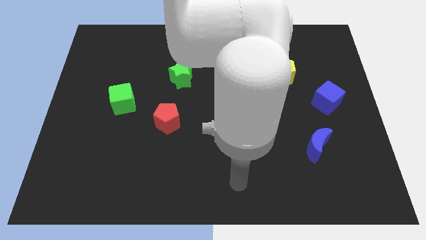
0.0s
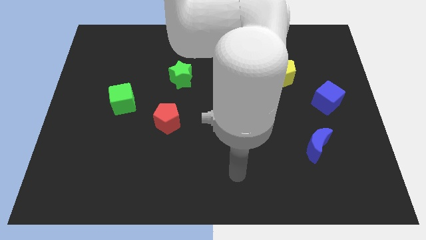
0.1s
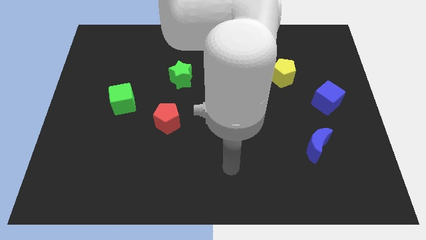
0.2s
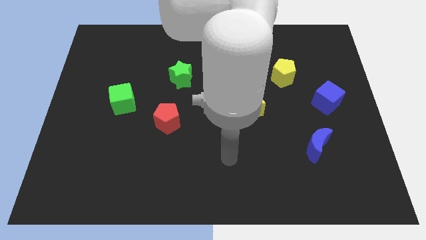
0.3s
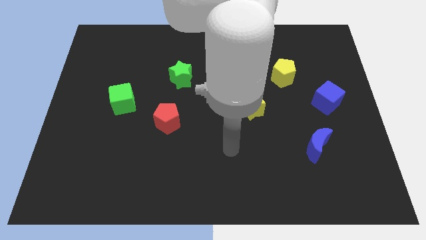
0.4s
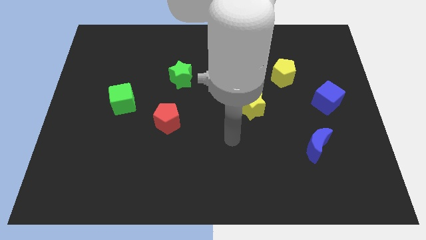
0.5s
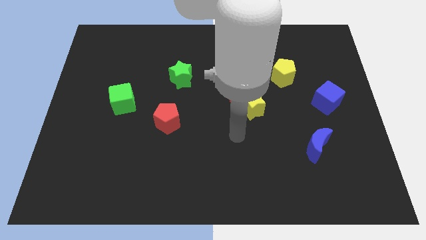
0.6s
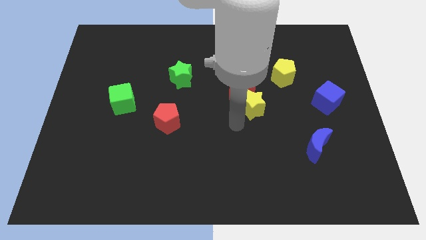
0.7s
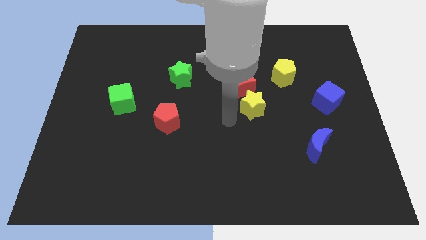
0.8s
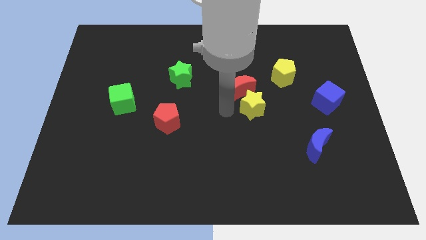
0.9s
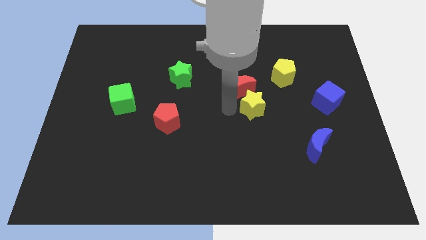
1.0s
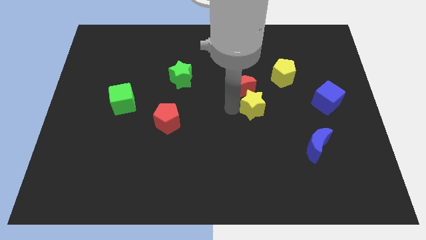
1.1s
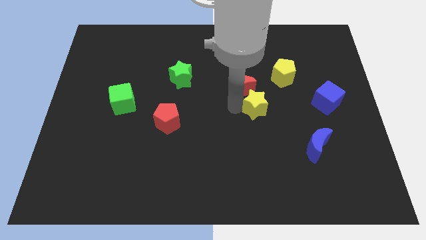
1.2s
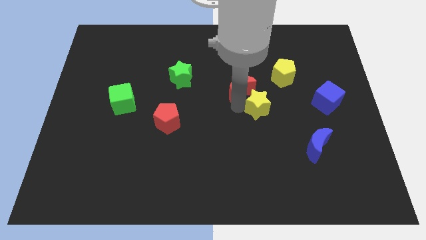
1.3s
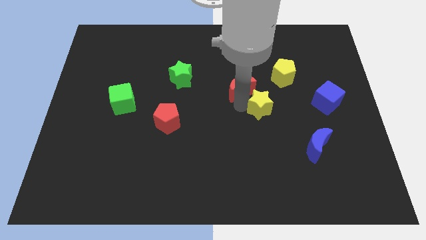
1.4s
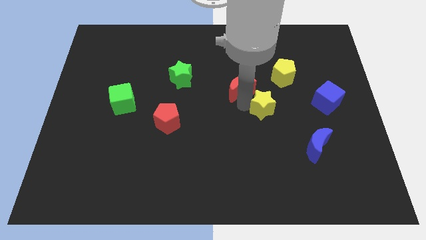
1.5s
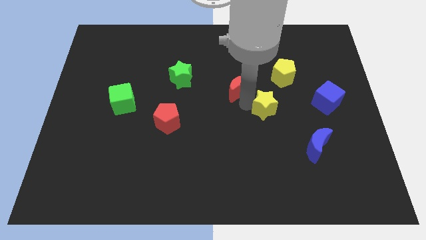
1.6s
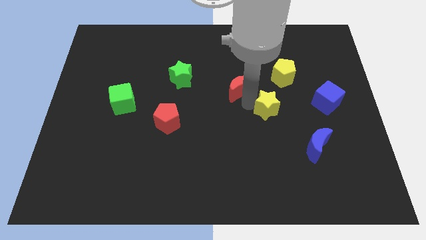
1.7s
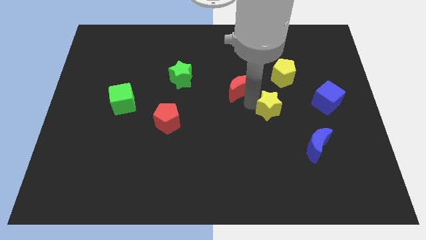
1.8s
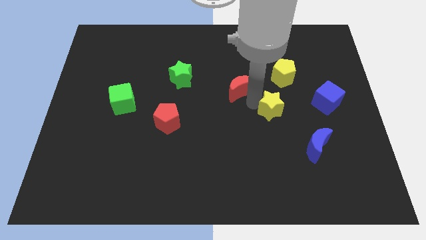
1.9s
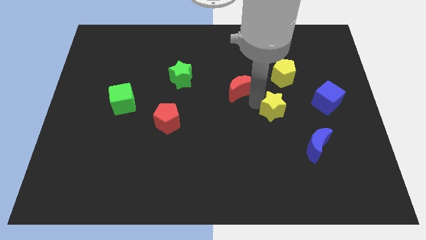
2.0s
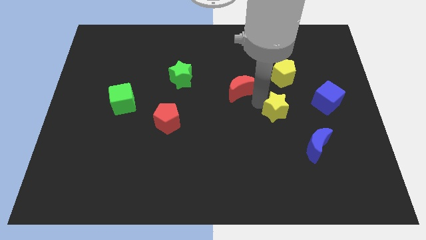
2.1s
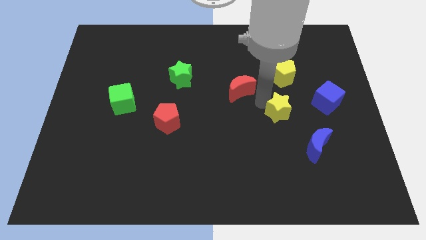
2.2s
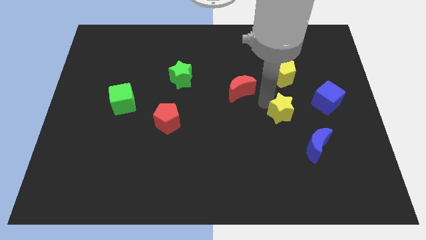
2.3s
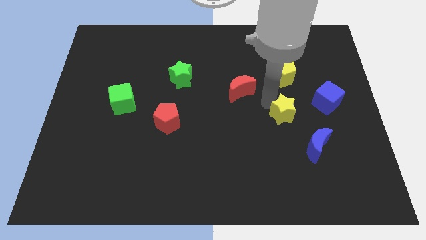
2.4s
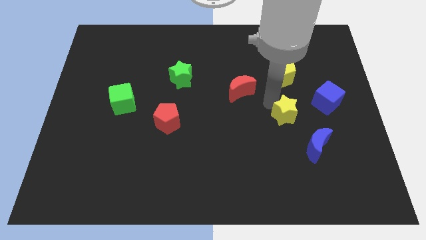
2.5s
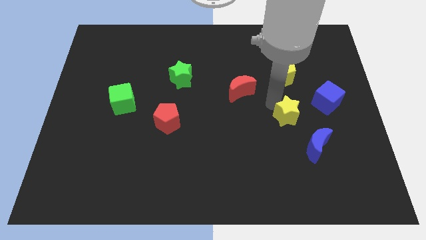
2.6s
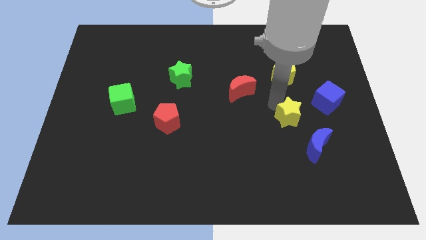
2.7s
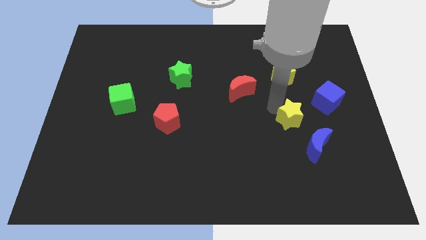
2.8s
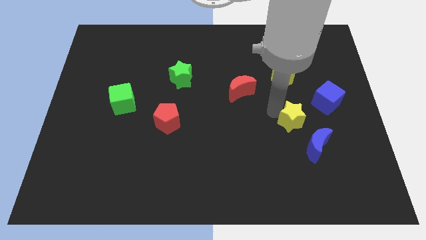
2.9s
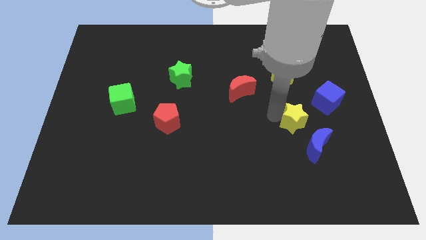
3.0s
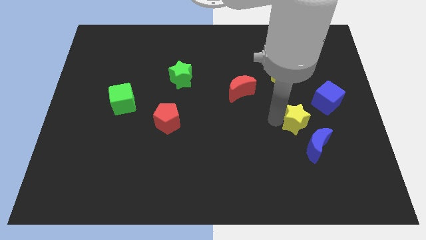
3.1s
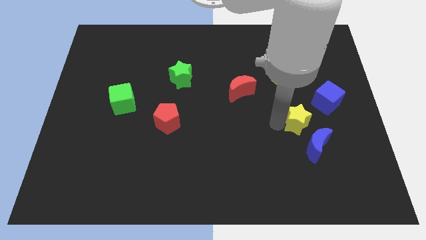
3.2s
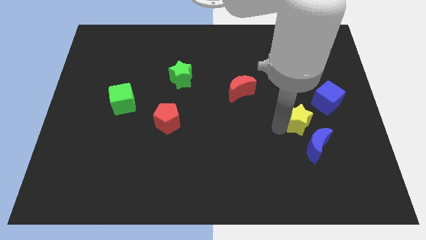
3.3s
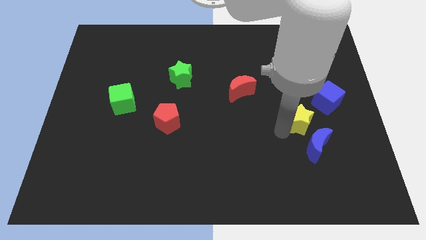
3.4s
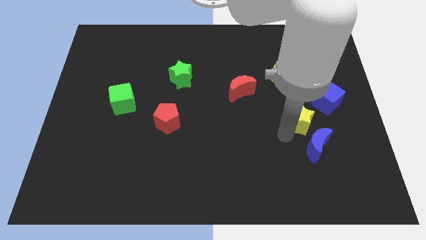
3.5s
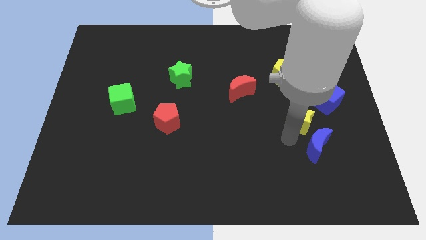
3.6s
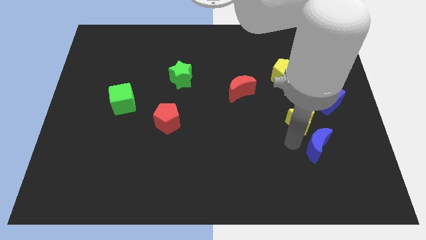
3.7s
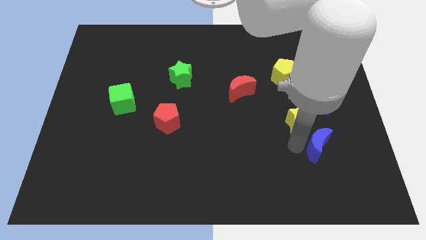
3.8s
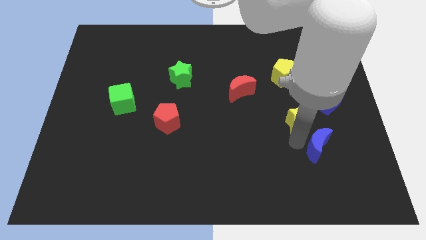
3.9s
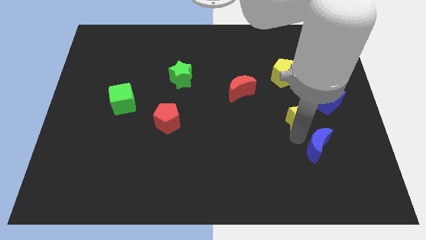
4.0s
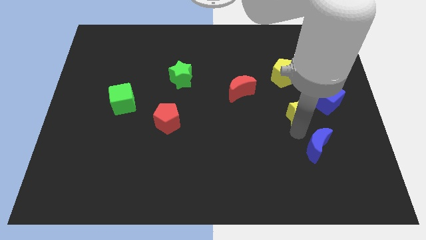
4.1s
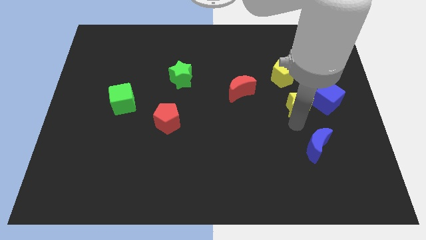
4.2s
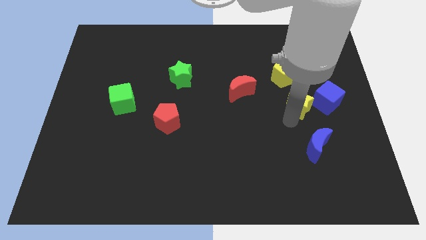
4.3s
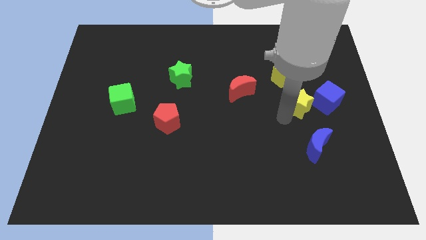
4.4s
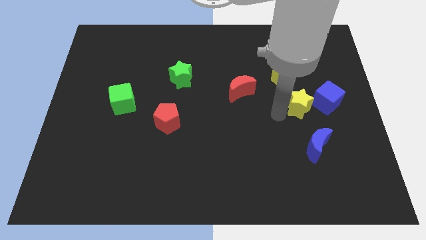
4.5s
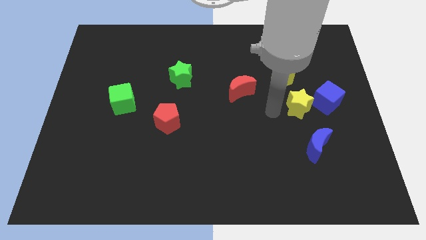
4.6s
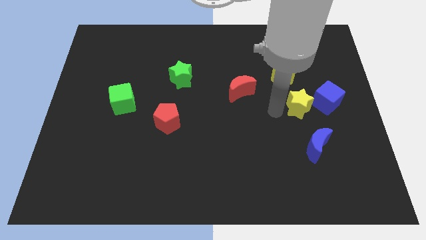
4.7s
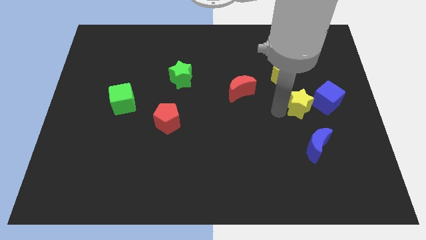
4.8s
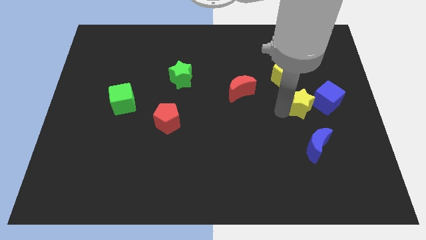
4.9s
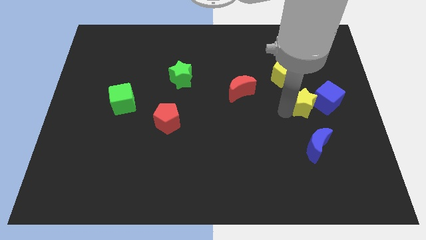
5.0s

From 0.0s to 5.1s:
move the yellow star next to the blue cube

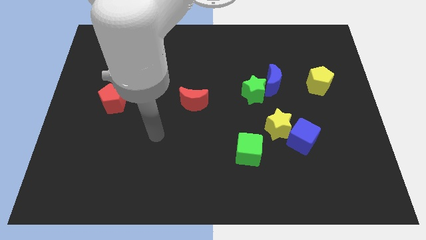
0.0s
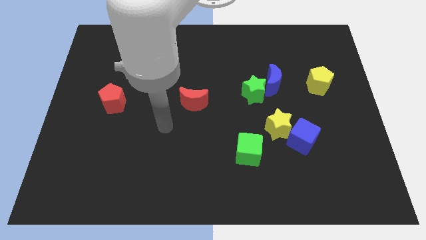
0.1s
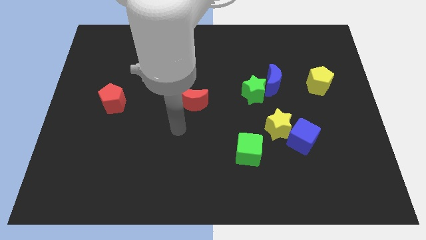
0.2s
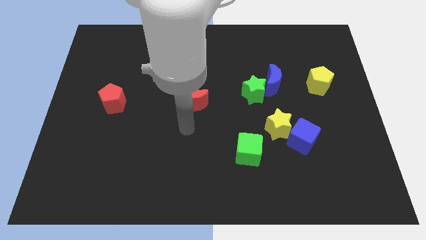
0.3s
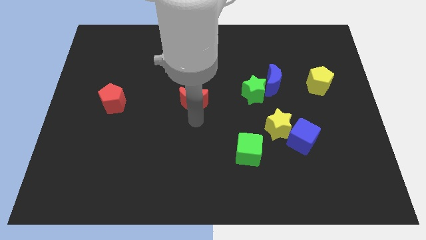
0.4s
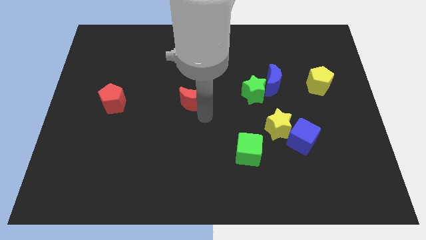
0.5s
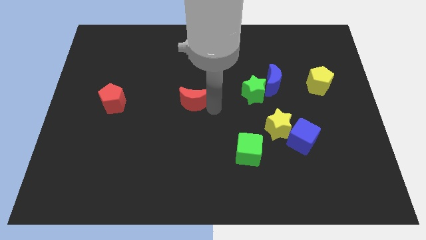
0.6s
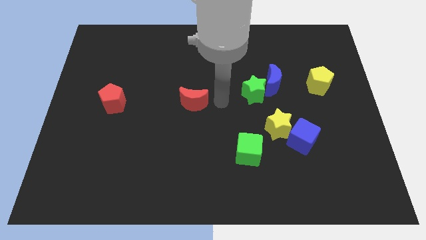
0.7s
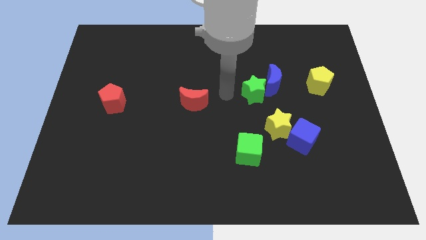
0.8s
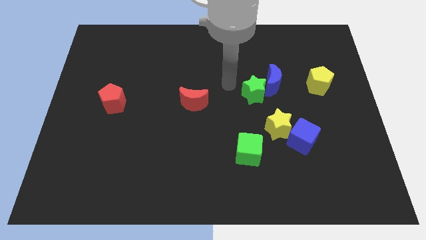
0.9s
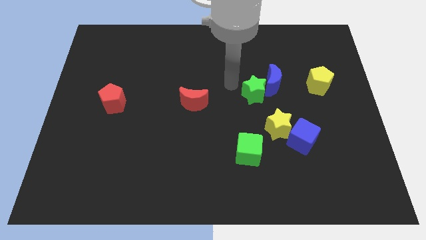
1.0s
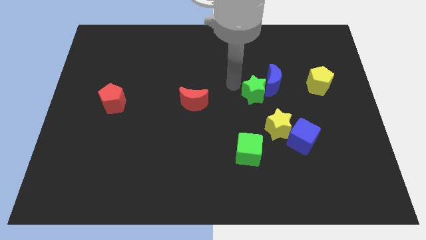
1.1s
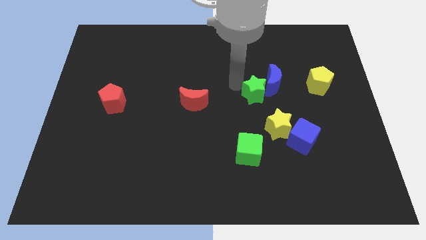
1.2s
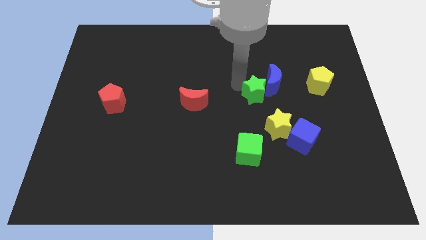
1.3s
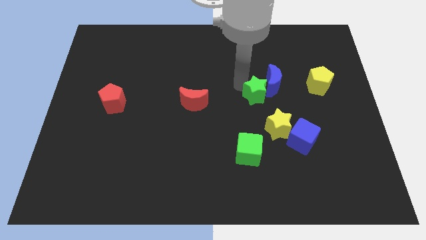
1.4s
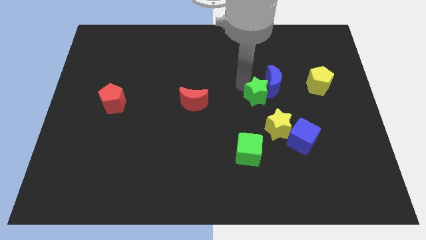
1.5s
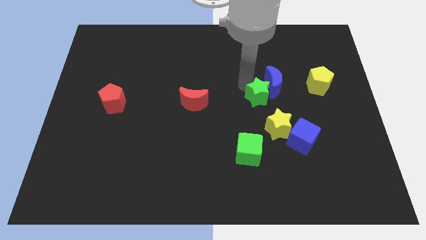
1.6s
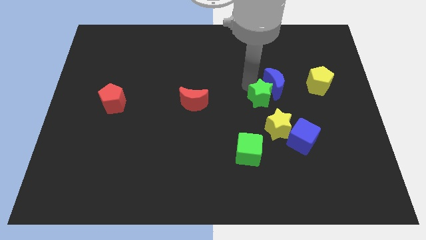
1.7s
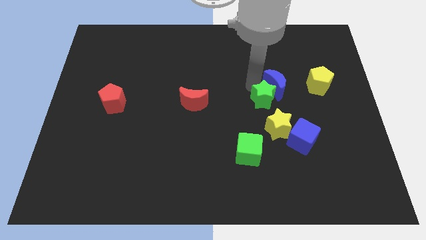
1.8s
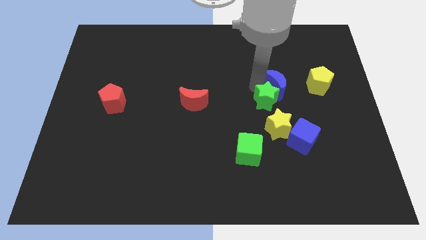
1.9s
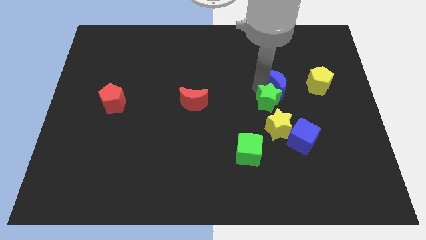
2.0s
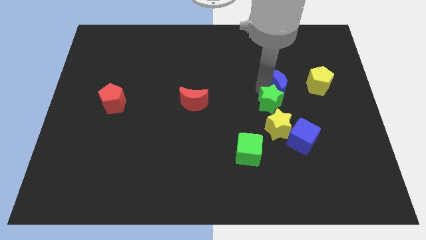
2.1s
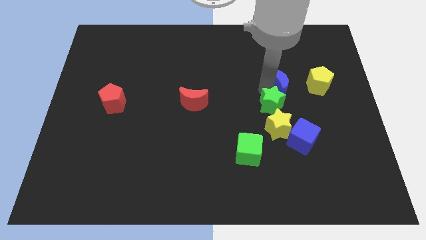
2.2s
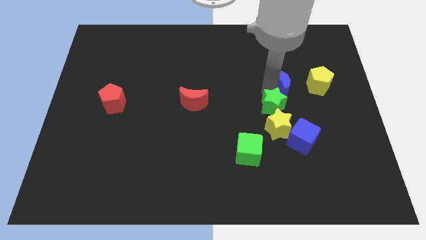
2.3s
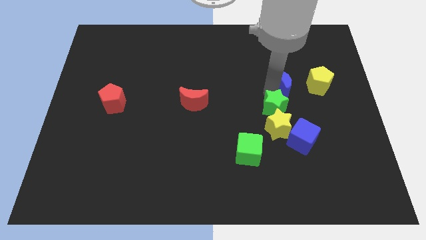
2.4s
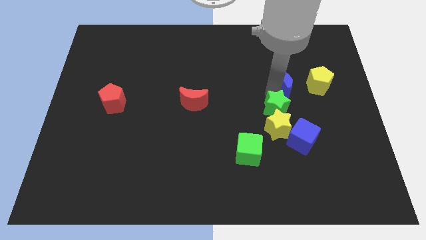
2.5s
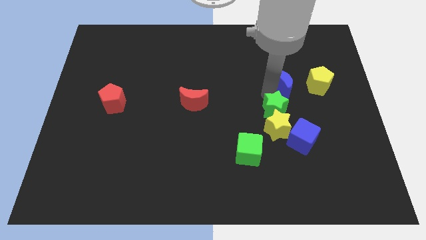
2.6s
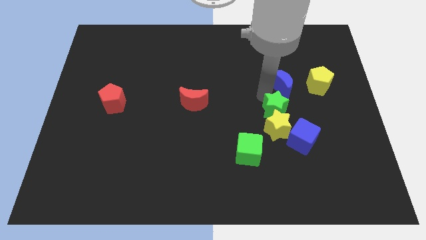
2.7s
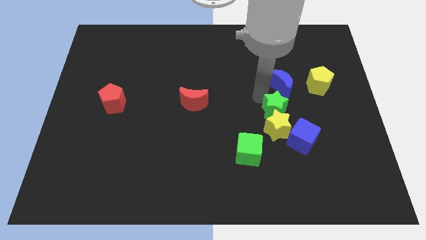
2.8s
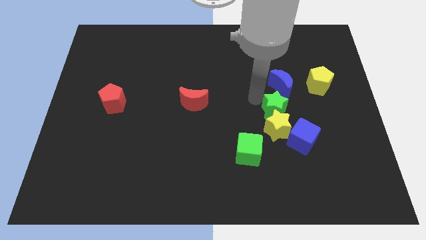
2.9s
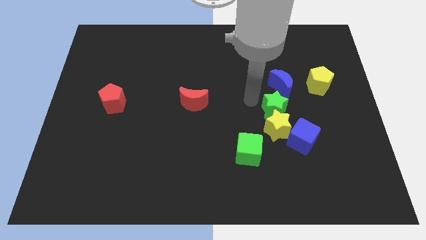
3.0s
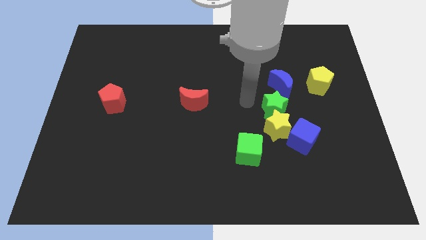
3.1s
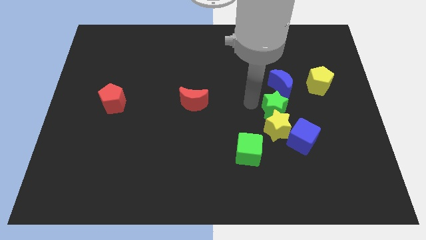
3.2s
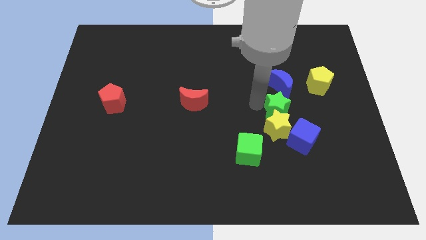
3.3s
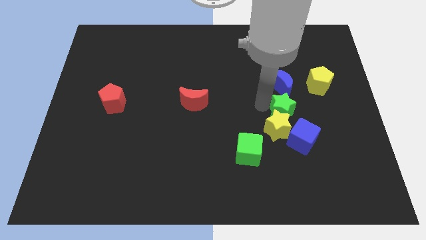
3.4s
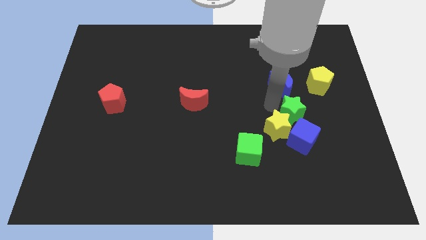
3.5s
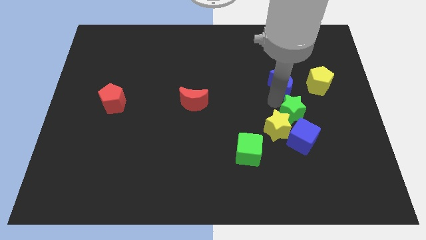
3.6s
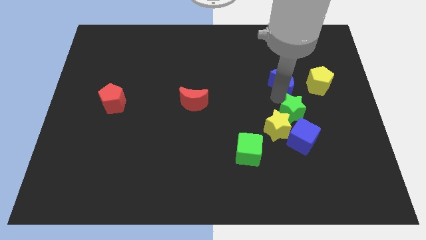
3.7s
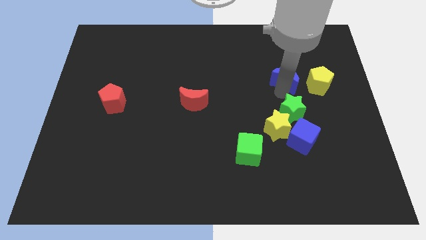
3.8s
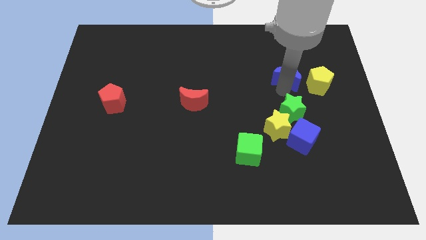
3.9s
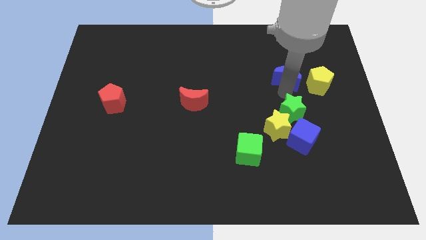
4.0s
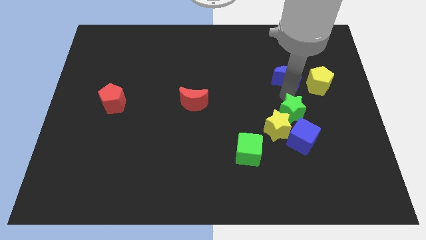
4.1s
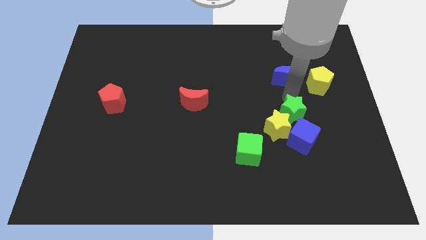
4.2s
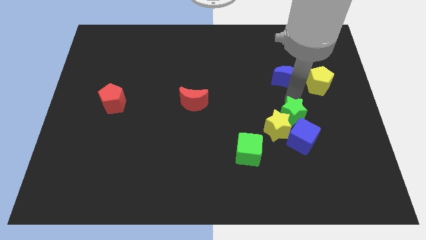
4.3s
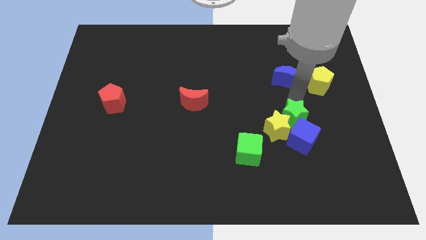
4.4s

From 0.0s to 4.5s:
push the green star towards the blue cube
